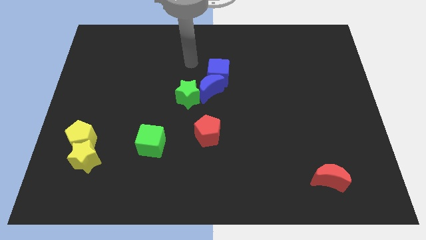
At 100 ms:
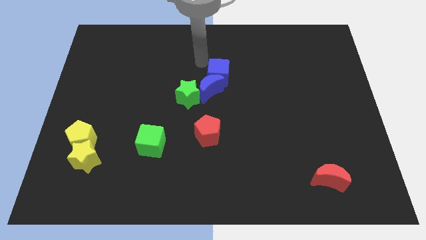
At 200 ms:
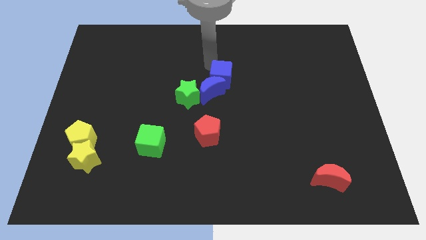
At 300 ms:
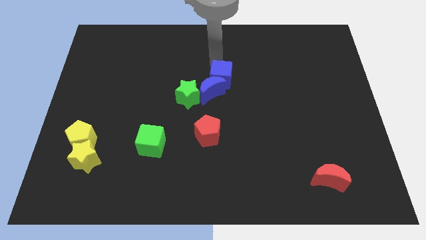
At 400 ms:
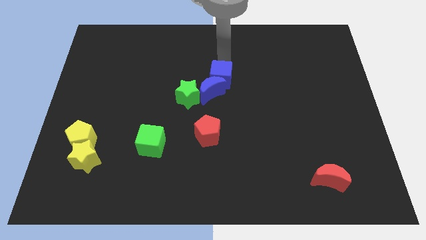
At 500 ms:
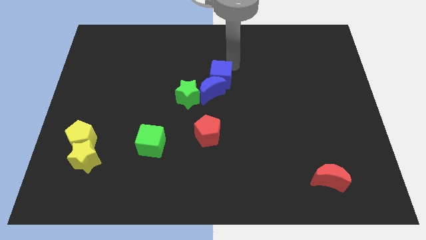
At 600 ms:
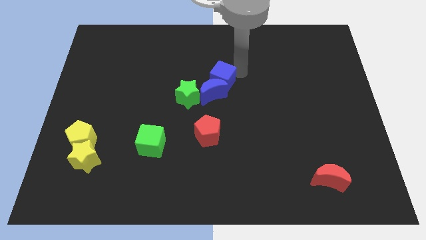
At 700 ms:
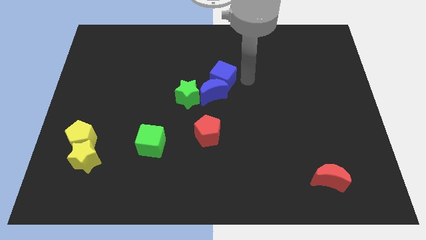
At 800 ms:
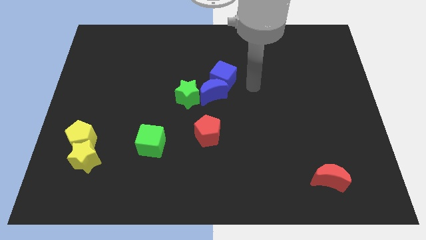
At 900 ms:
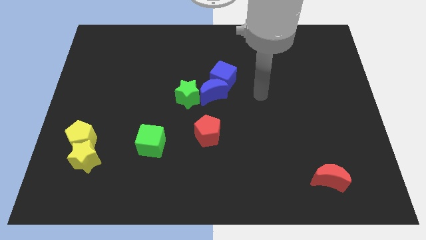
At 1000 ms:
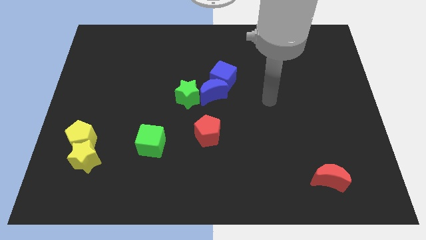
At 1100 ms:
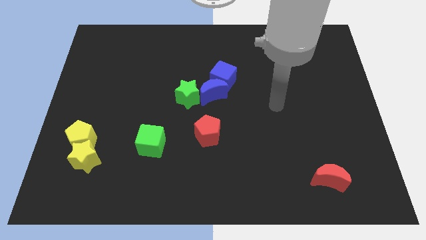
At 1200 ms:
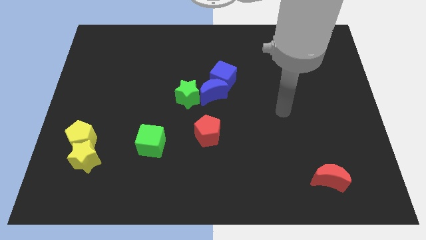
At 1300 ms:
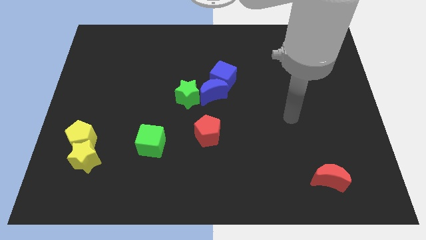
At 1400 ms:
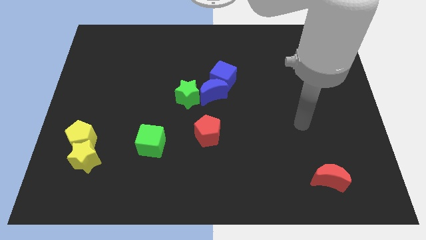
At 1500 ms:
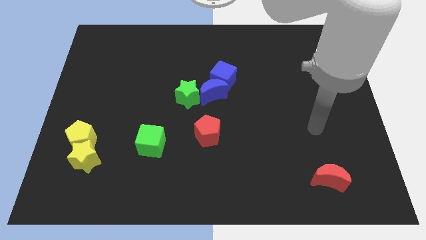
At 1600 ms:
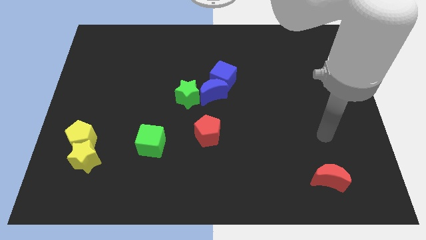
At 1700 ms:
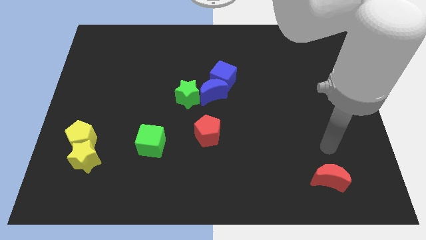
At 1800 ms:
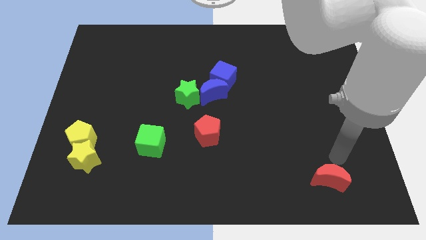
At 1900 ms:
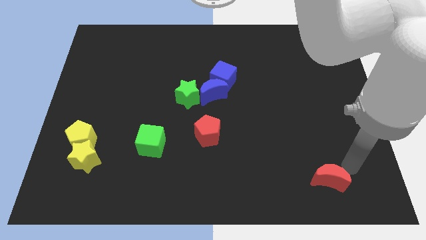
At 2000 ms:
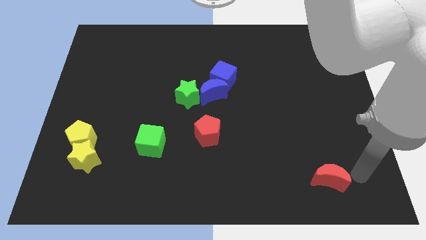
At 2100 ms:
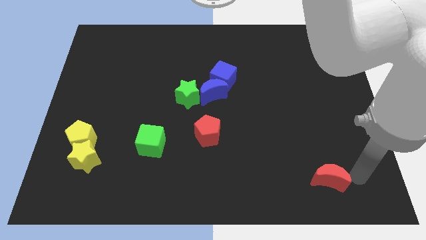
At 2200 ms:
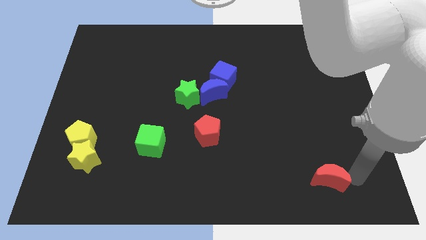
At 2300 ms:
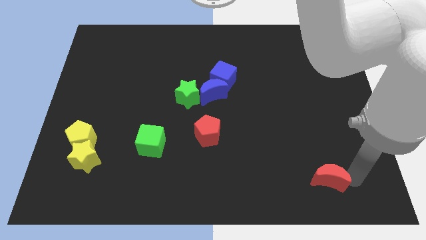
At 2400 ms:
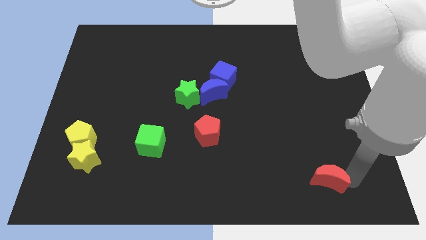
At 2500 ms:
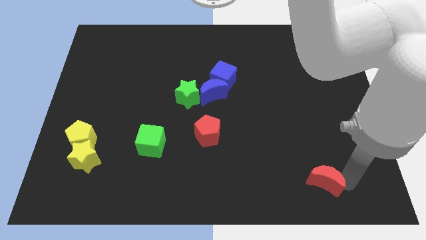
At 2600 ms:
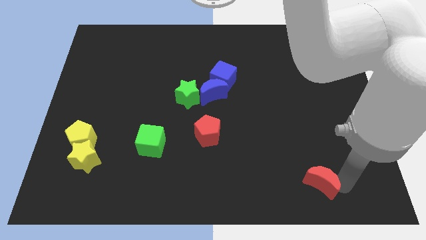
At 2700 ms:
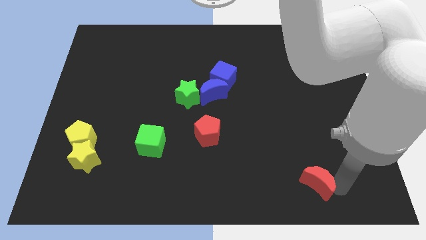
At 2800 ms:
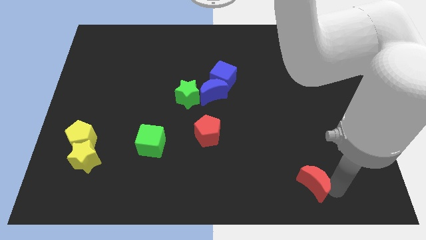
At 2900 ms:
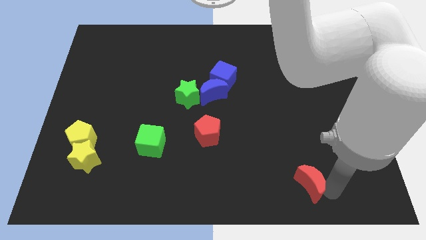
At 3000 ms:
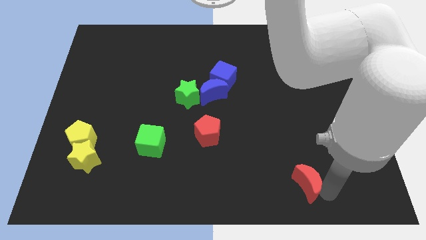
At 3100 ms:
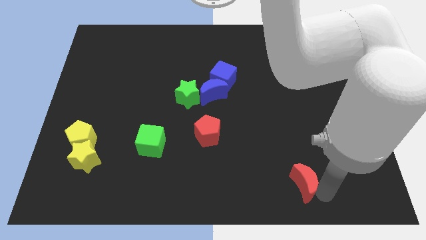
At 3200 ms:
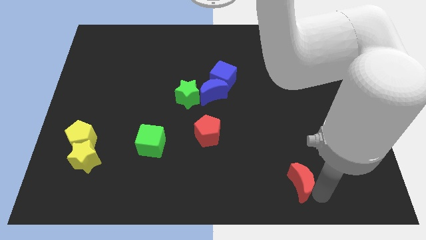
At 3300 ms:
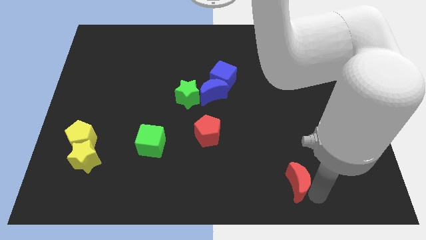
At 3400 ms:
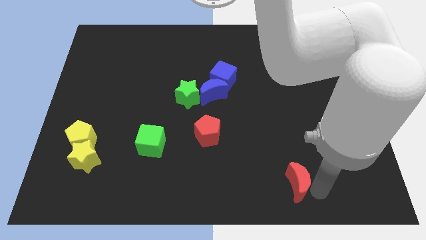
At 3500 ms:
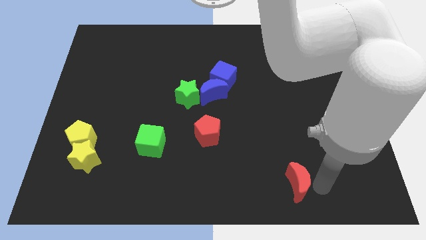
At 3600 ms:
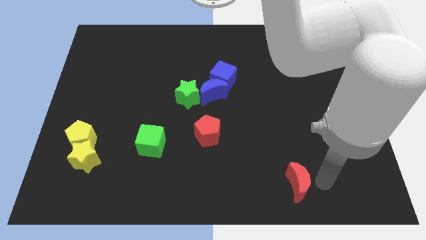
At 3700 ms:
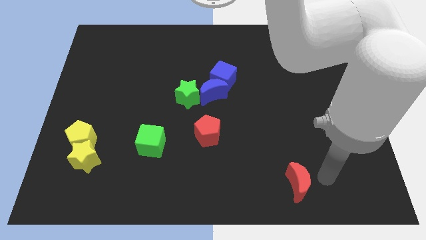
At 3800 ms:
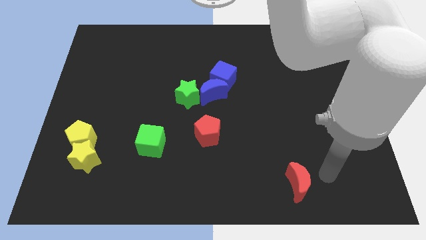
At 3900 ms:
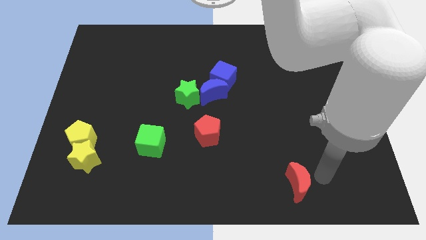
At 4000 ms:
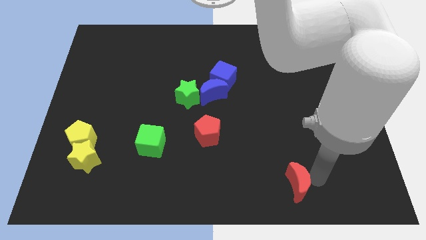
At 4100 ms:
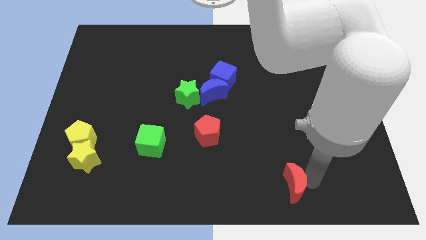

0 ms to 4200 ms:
slightly move the red moon to the left

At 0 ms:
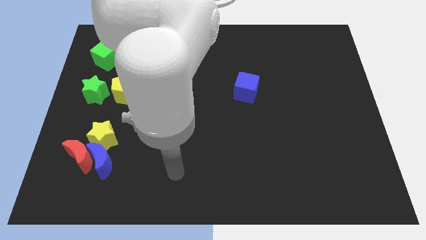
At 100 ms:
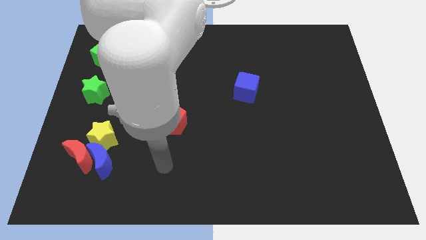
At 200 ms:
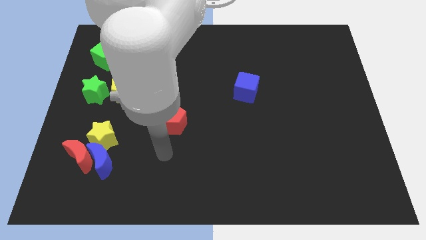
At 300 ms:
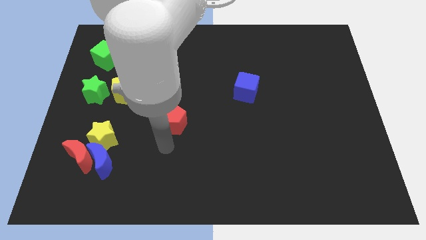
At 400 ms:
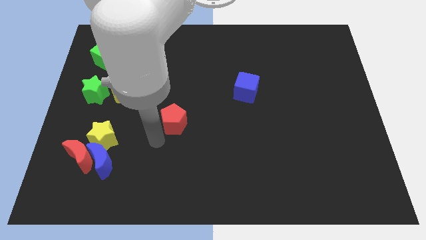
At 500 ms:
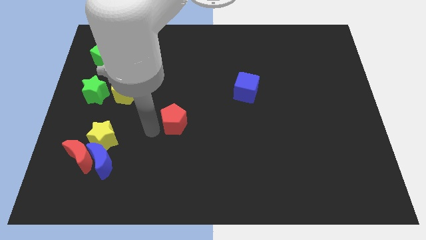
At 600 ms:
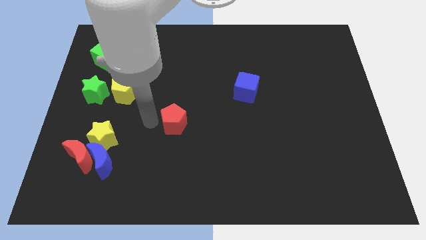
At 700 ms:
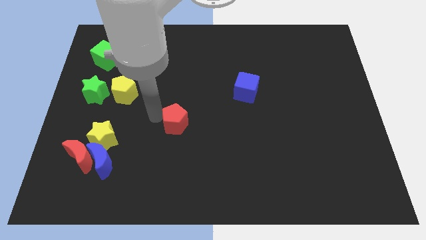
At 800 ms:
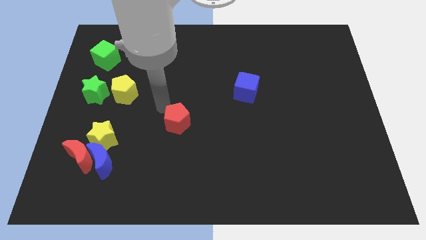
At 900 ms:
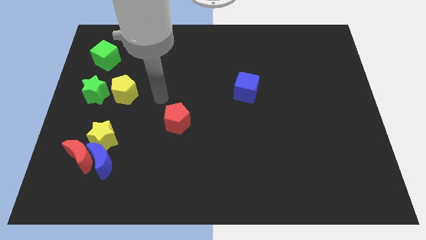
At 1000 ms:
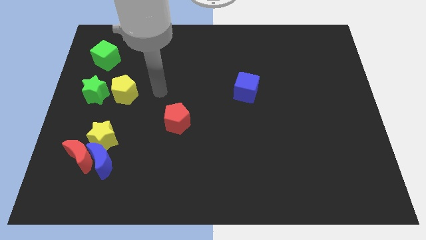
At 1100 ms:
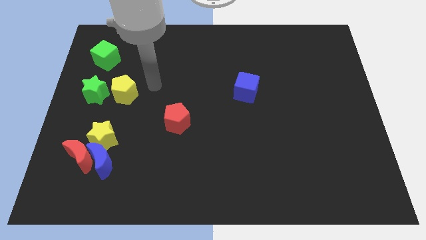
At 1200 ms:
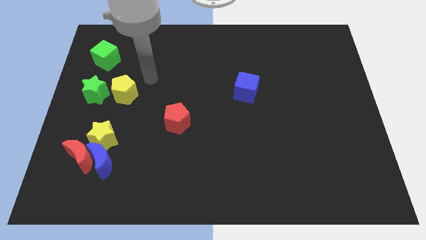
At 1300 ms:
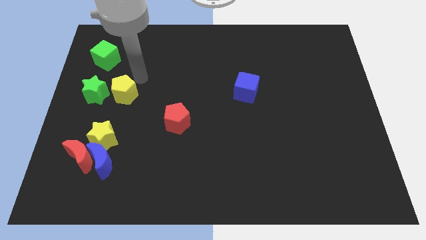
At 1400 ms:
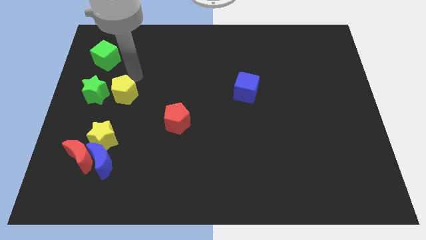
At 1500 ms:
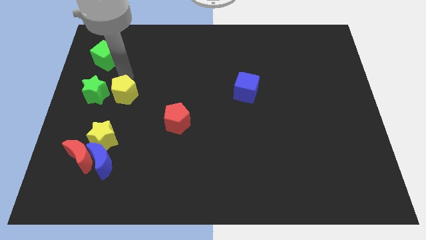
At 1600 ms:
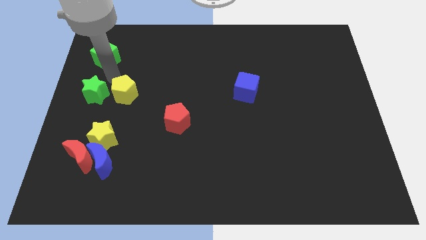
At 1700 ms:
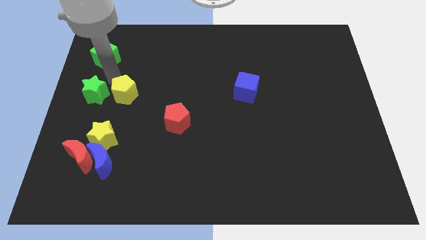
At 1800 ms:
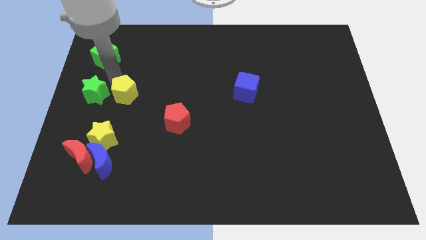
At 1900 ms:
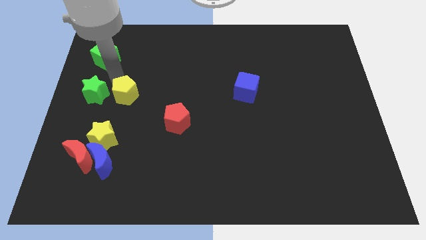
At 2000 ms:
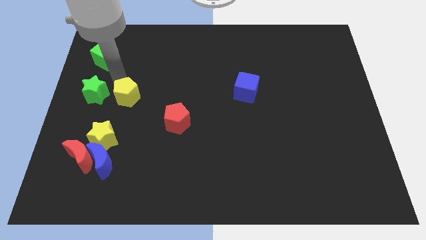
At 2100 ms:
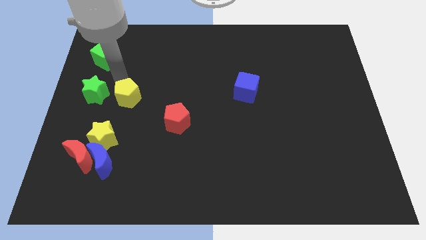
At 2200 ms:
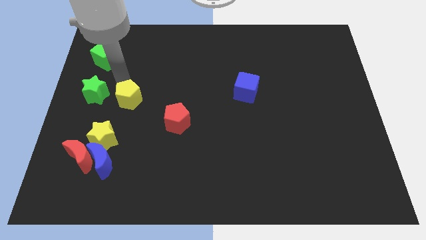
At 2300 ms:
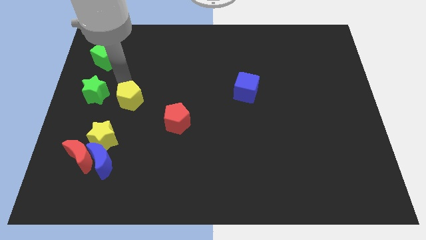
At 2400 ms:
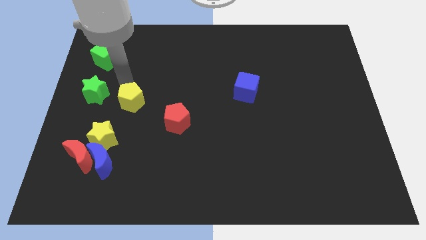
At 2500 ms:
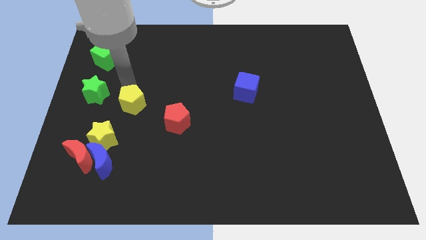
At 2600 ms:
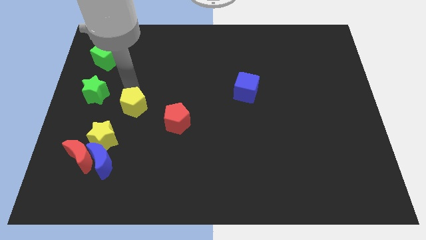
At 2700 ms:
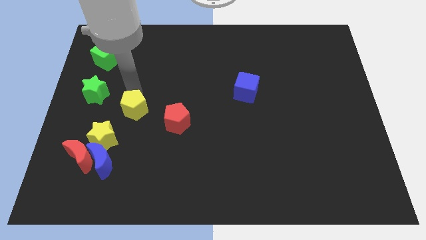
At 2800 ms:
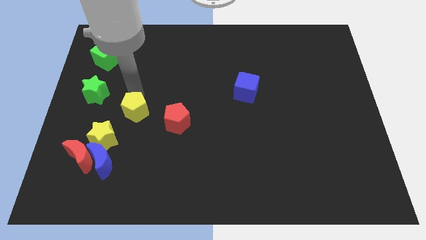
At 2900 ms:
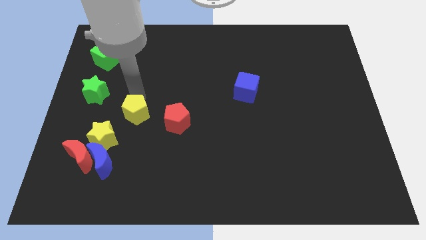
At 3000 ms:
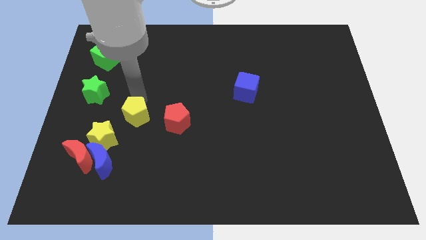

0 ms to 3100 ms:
slightly push the yellow pentagon downwards and right diagonally

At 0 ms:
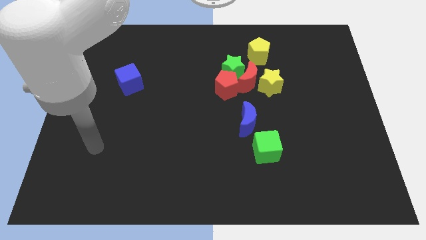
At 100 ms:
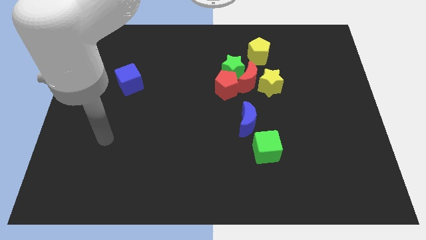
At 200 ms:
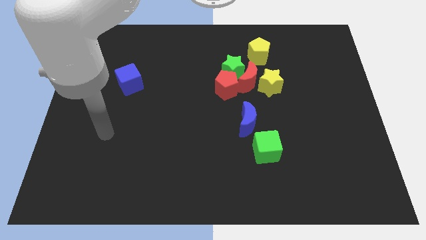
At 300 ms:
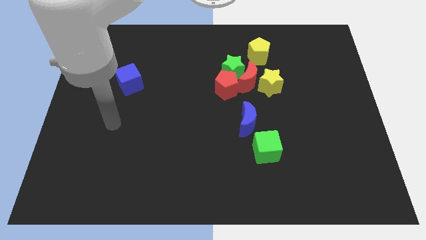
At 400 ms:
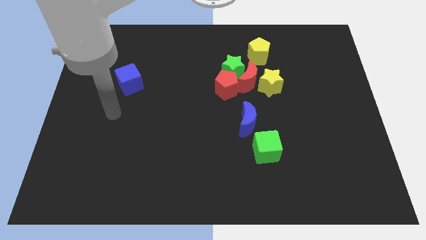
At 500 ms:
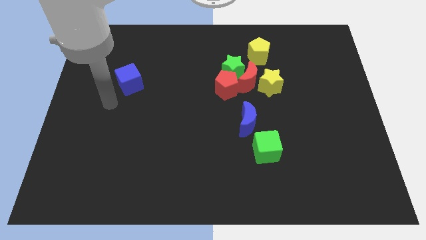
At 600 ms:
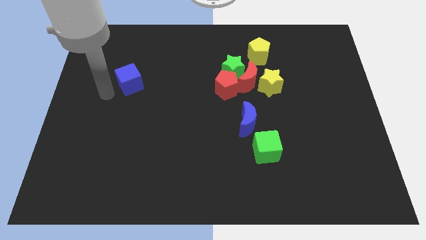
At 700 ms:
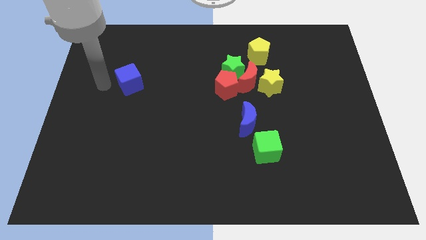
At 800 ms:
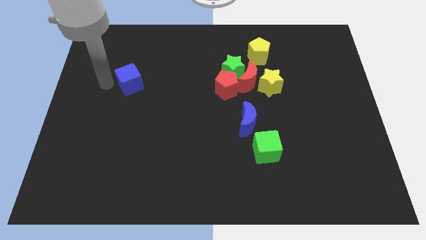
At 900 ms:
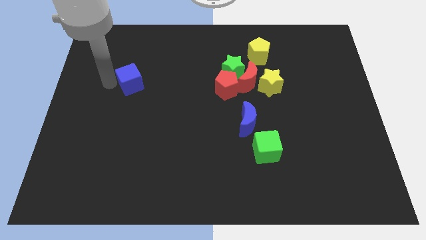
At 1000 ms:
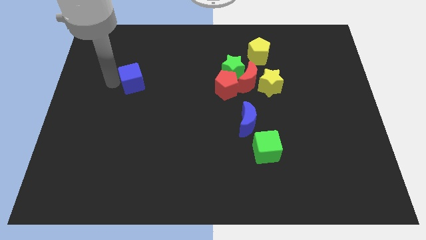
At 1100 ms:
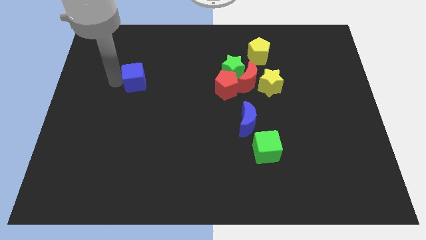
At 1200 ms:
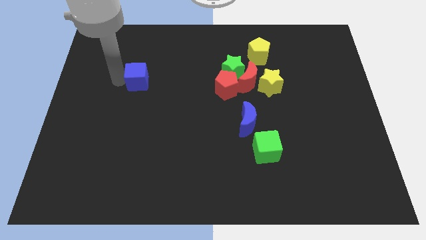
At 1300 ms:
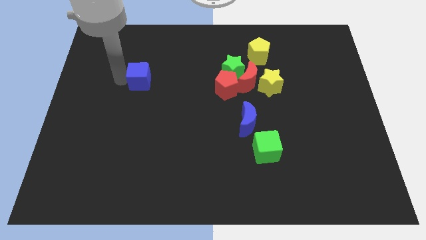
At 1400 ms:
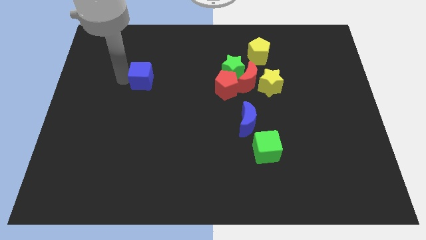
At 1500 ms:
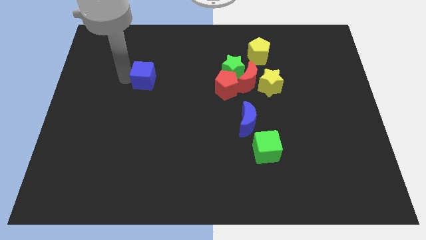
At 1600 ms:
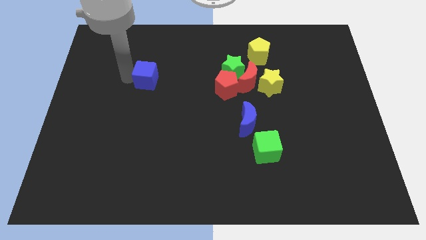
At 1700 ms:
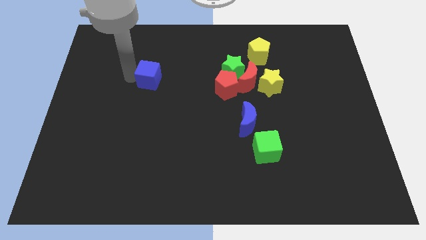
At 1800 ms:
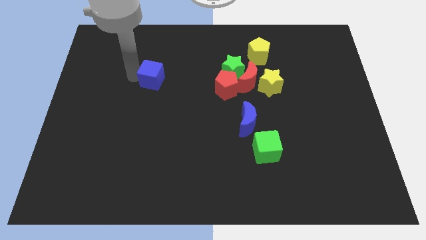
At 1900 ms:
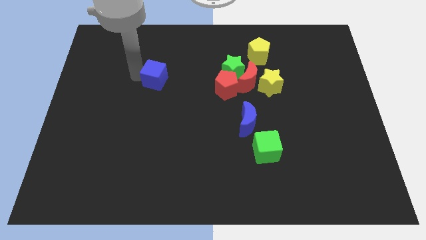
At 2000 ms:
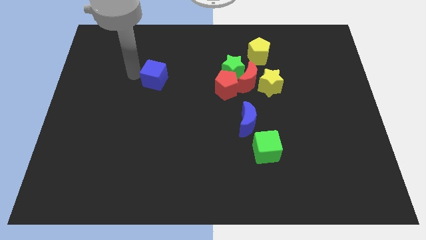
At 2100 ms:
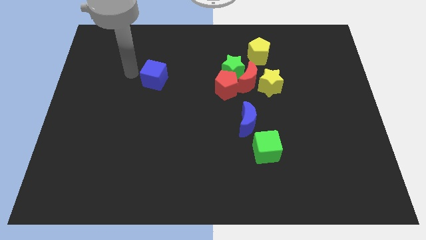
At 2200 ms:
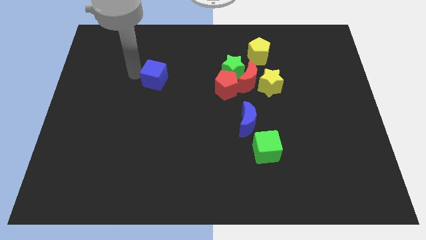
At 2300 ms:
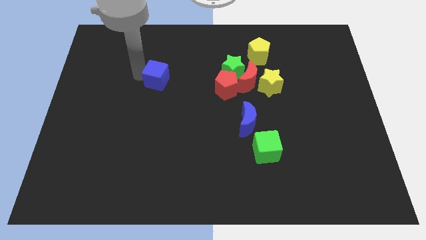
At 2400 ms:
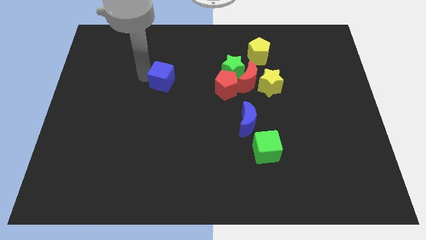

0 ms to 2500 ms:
push the blue cube right somewhat
